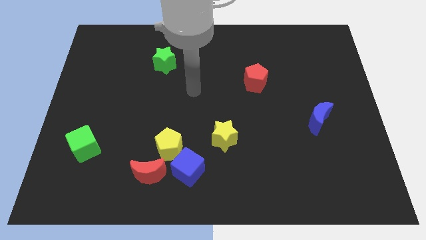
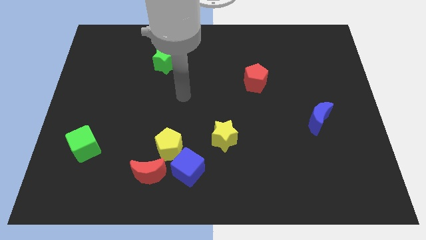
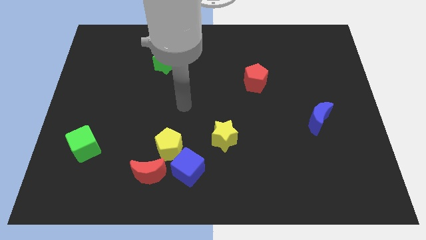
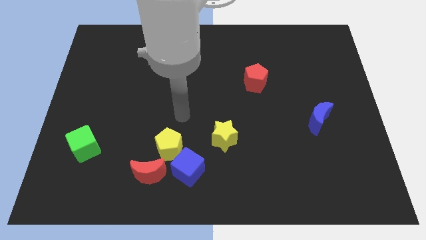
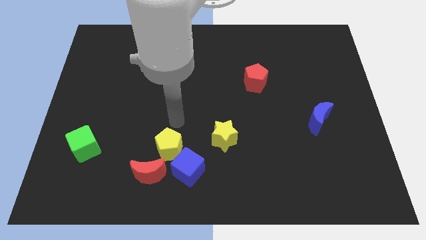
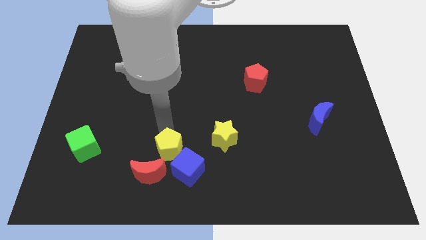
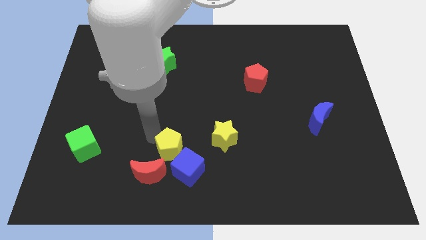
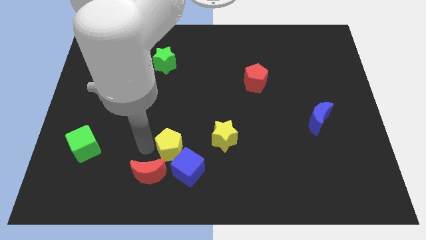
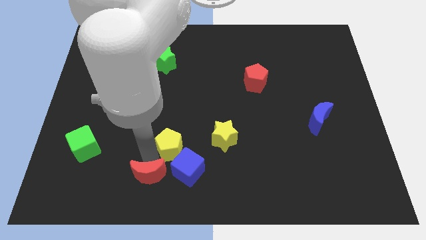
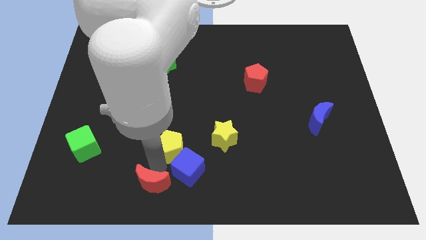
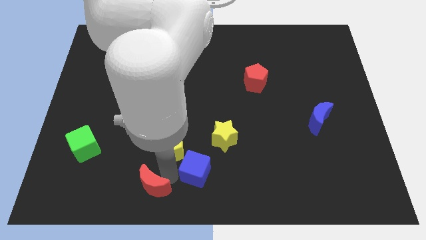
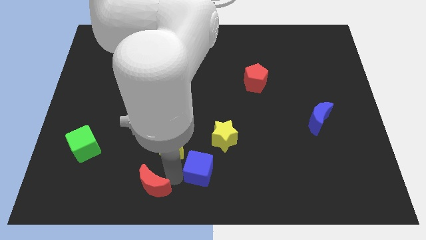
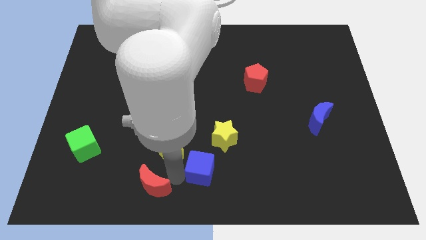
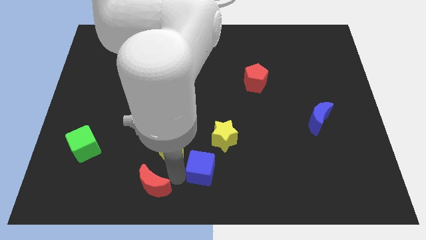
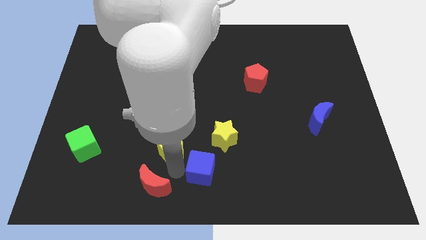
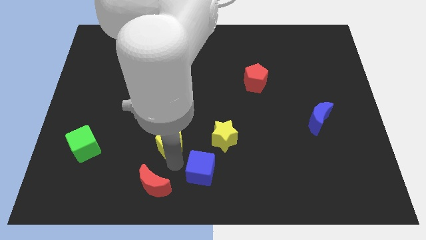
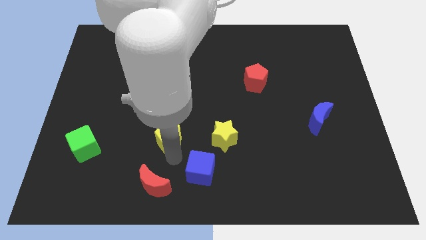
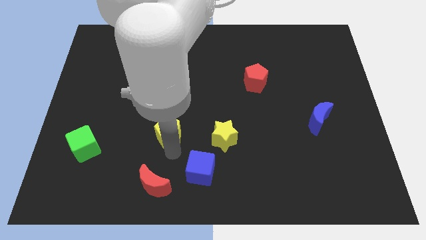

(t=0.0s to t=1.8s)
pull the yellow pentagon apart from the blue cube and red moon

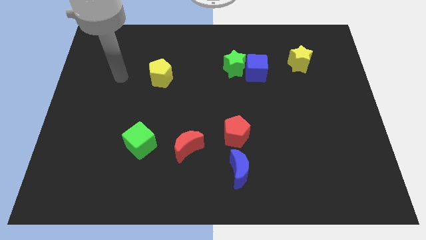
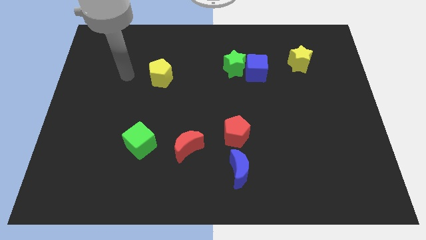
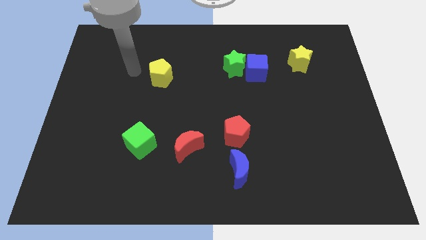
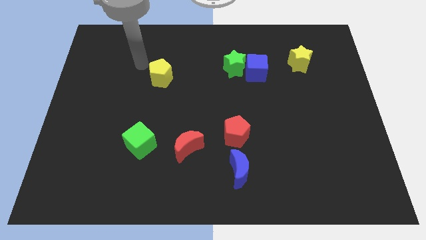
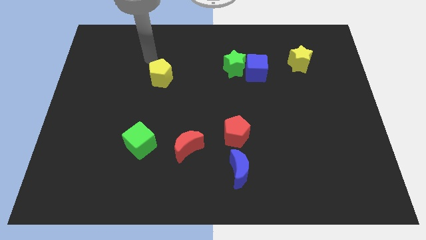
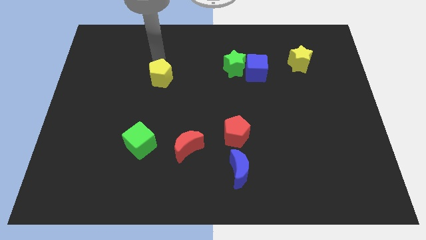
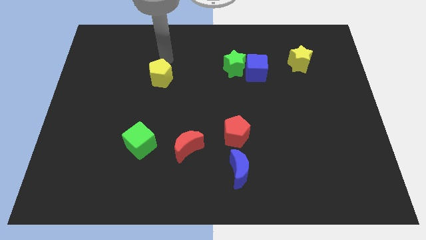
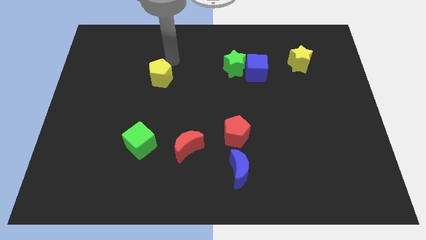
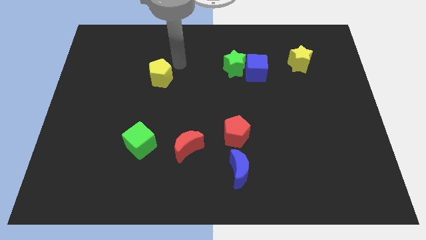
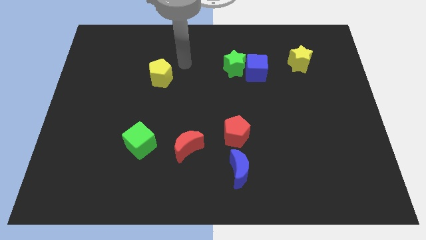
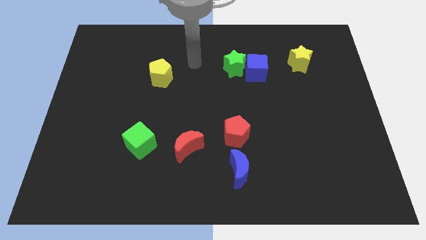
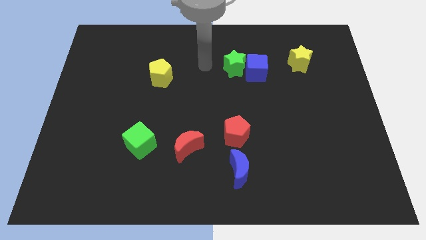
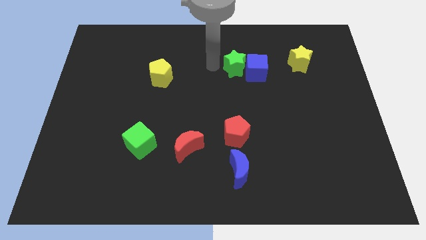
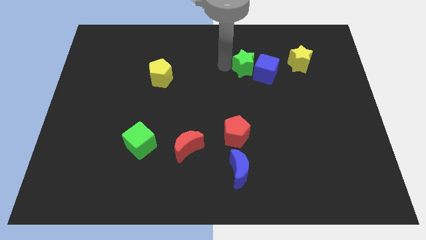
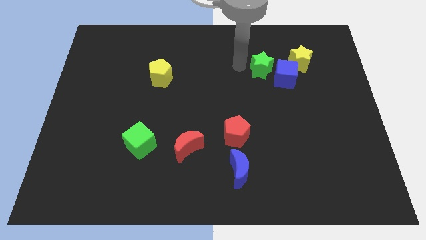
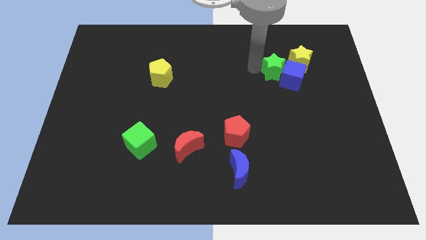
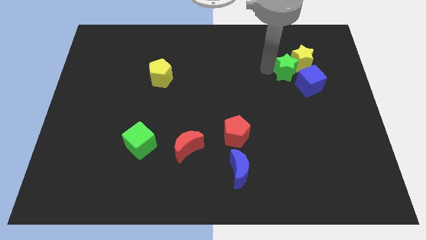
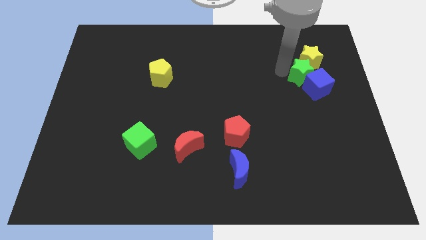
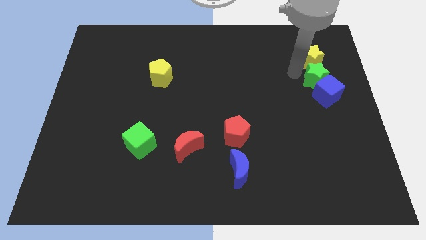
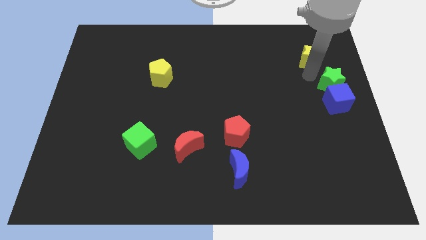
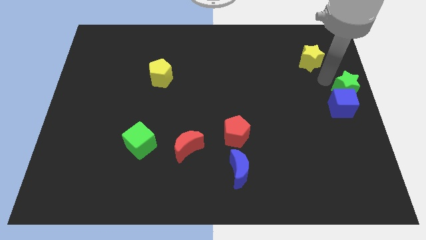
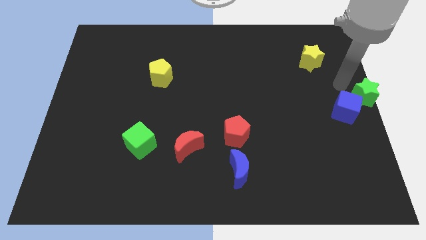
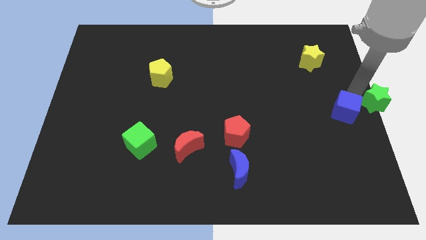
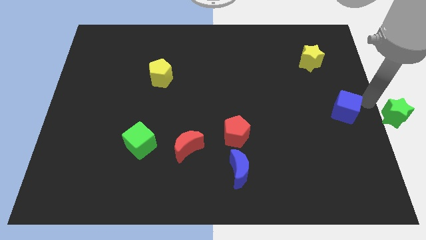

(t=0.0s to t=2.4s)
move the blue cube away from the green star

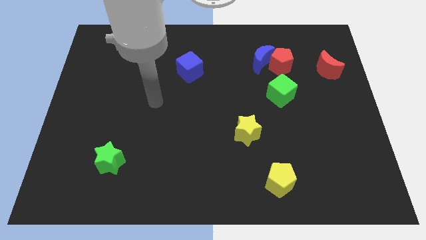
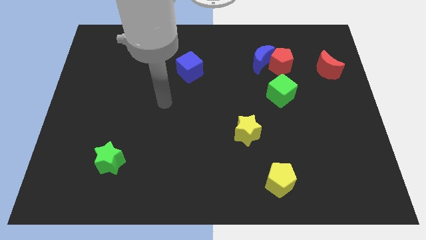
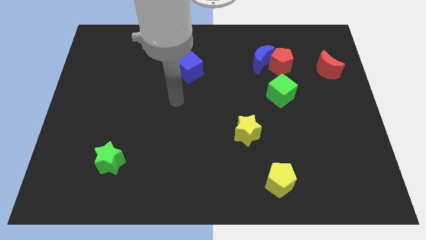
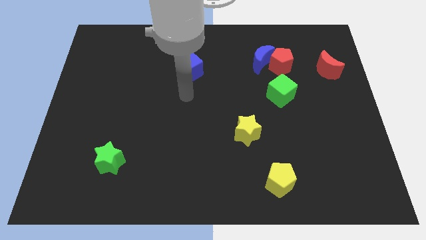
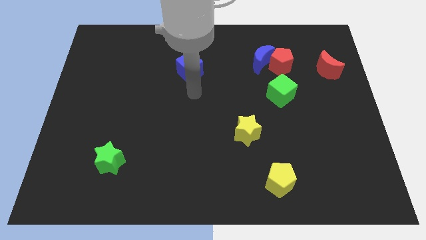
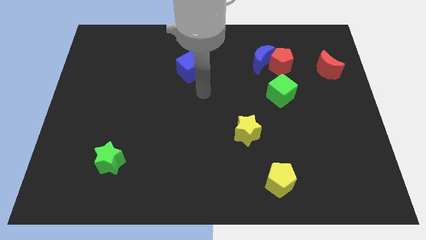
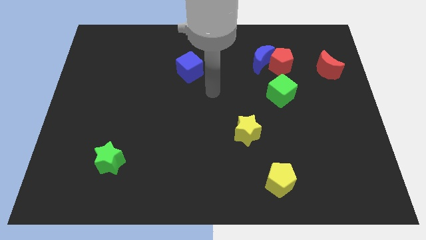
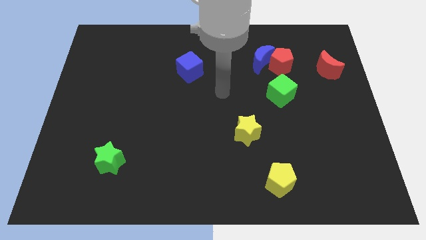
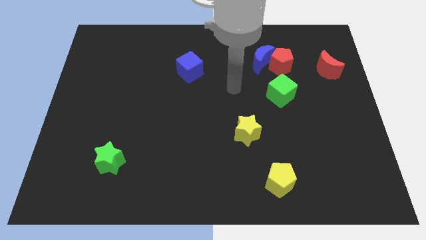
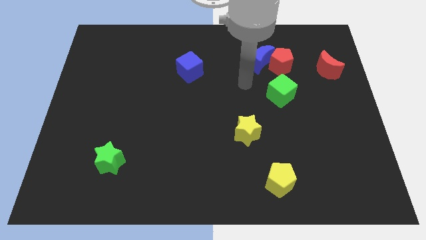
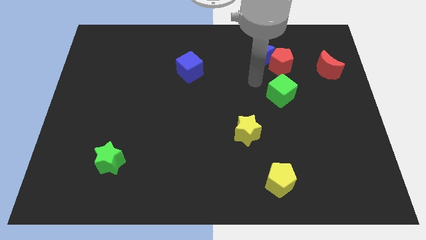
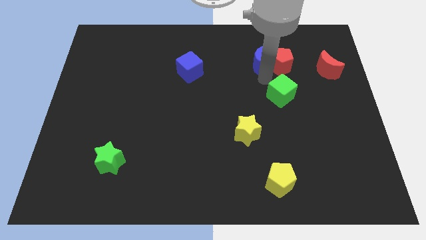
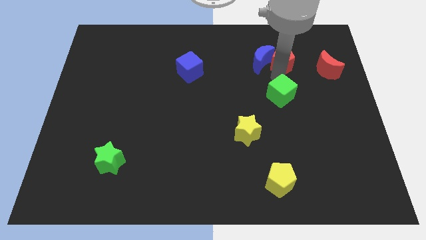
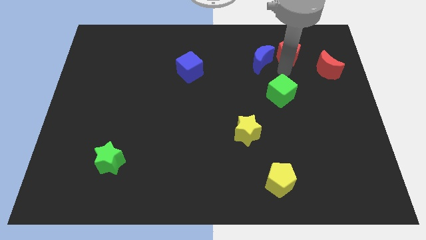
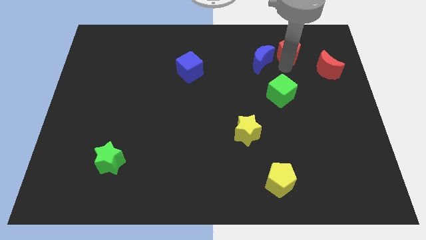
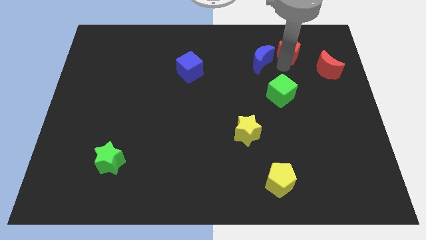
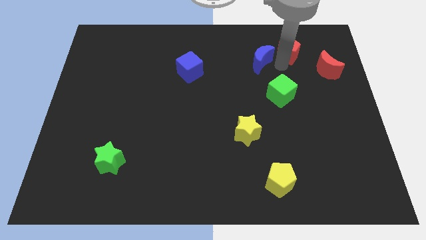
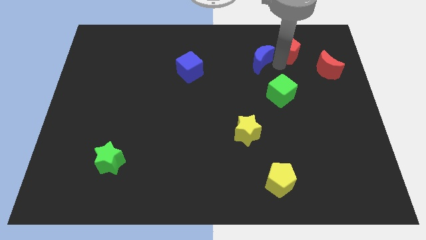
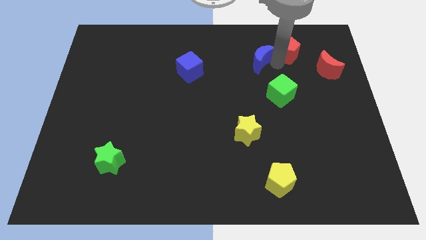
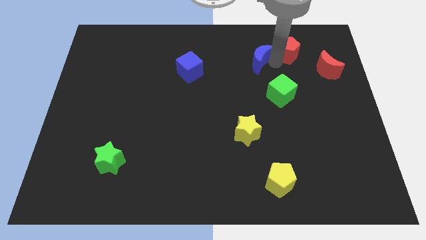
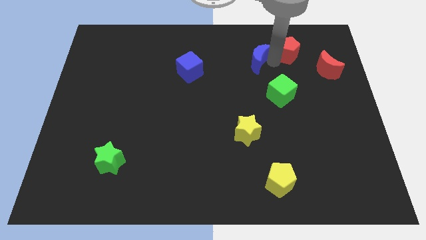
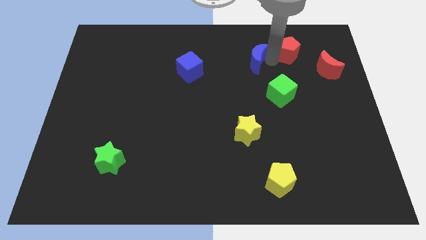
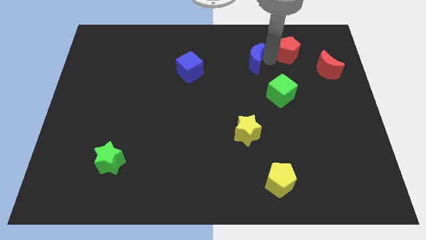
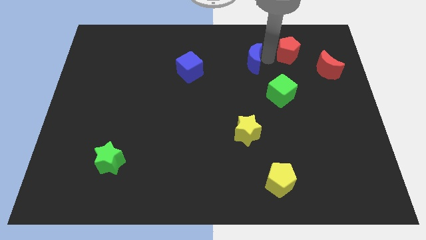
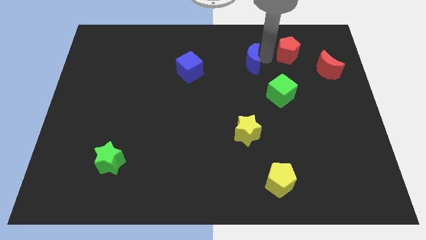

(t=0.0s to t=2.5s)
pull the blue moon apart from the red pentagon

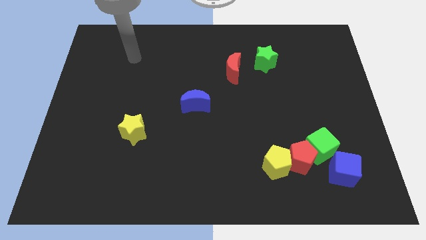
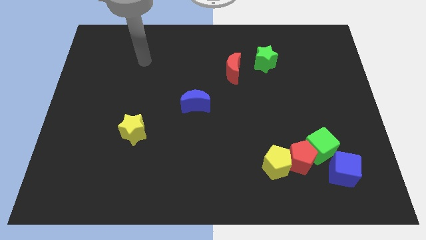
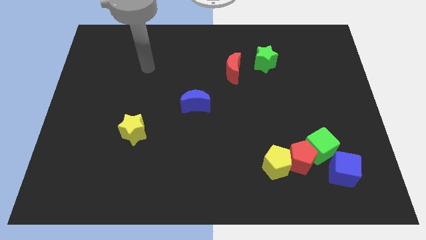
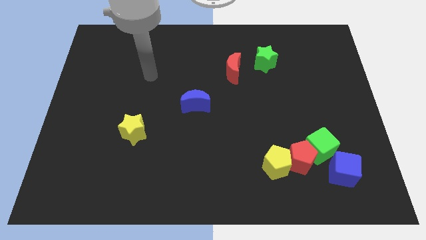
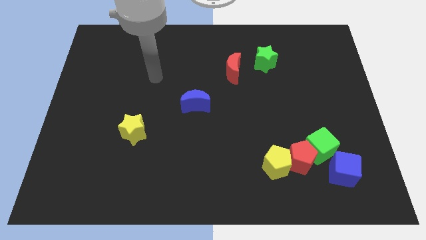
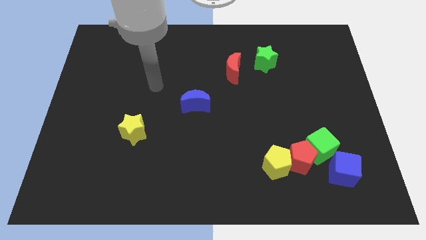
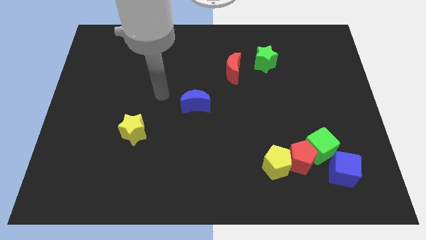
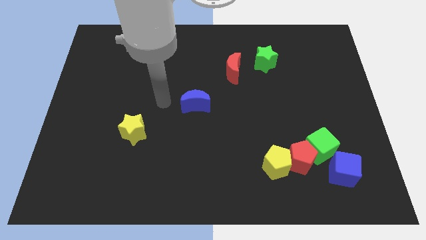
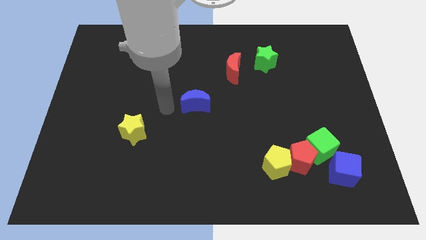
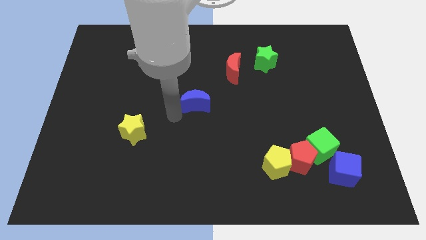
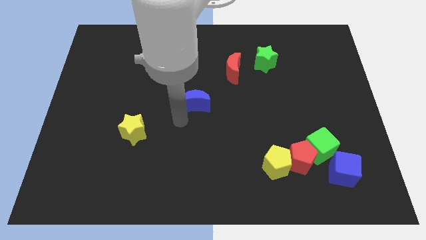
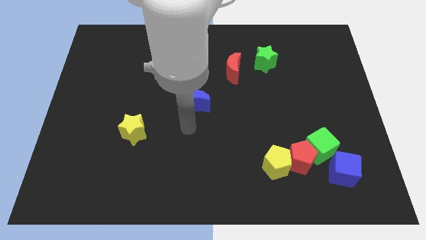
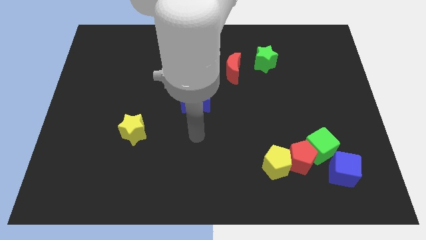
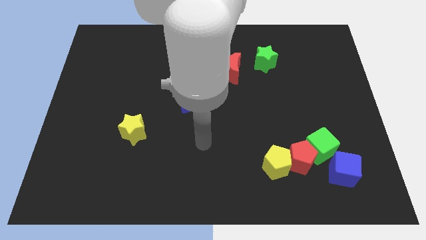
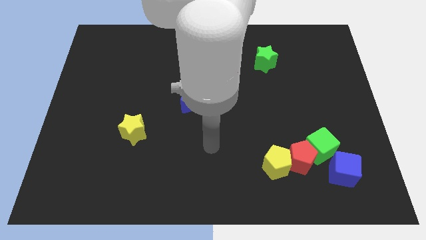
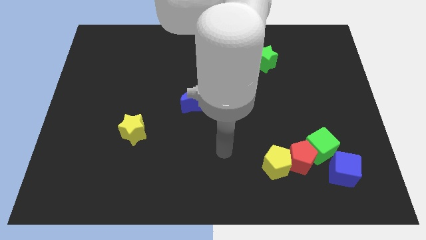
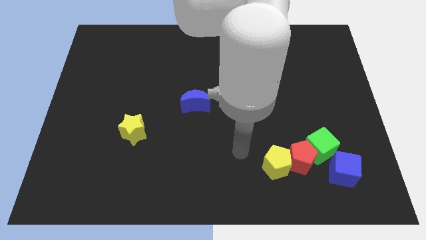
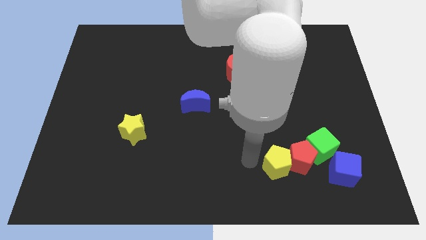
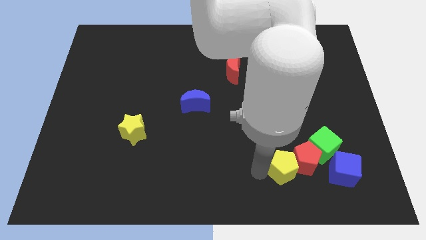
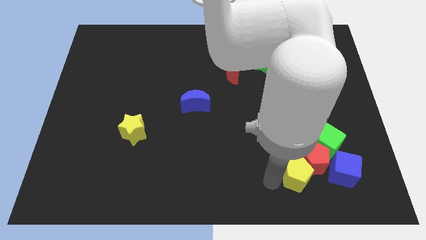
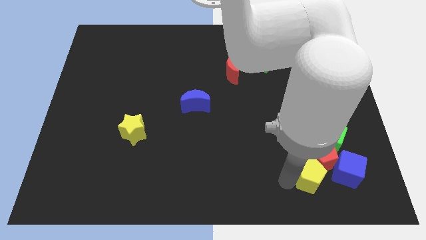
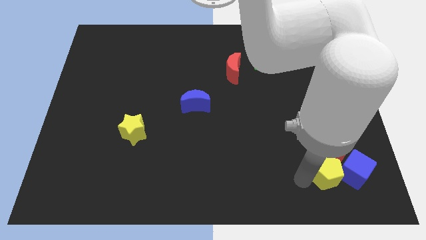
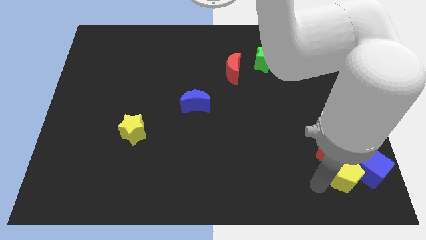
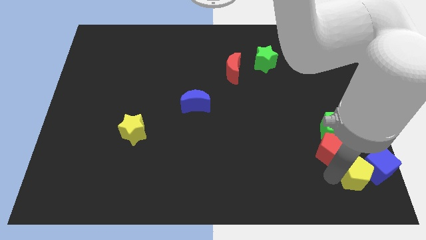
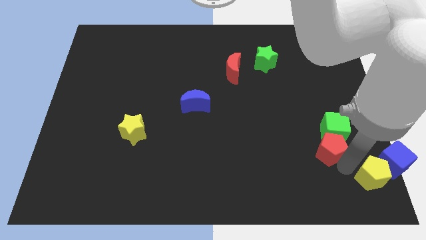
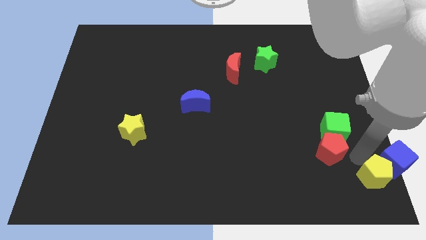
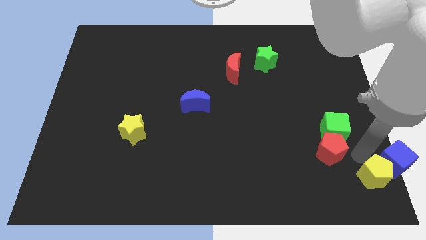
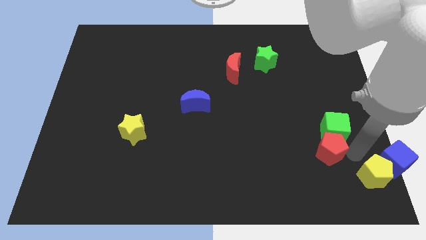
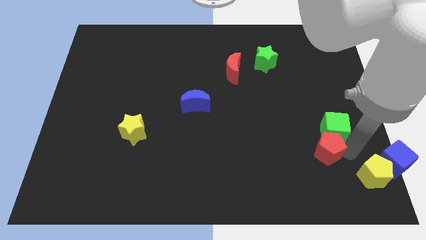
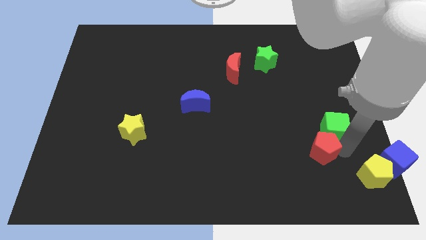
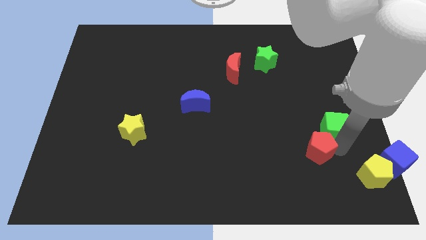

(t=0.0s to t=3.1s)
separate the red pentagon from the yellow pentagon, green cube, and blue cube
